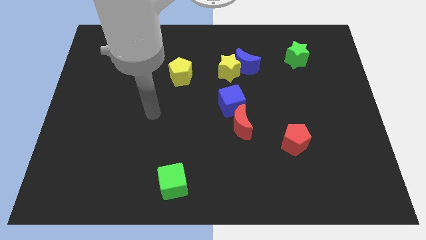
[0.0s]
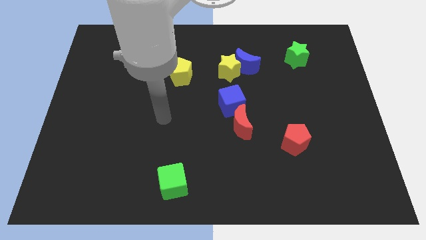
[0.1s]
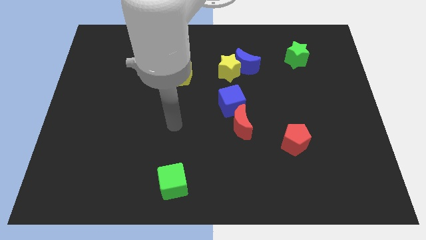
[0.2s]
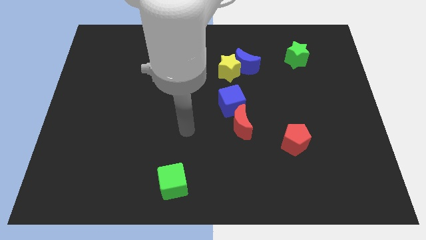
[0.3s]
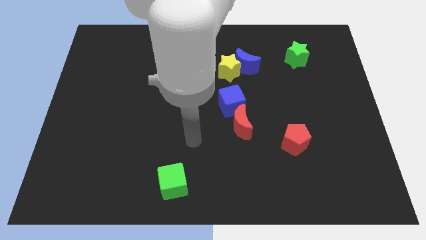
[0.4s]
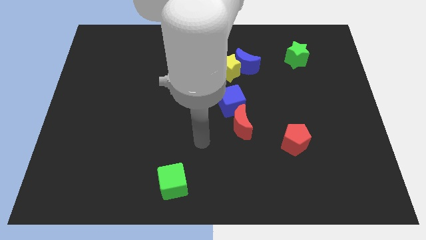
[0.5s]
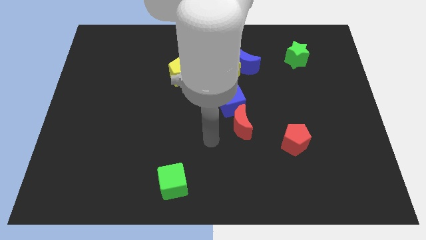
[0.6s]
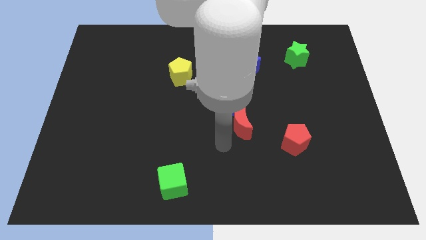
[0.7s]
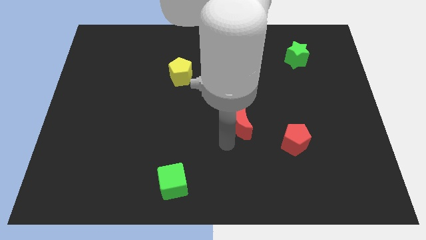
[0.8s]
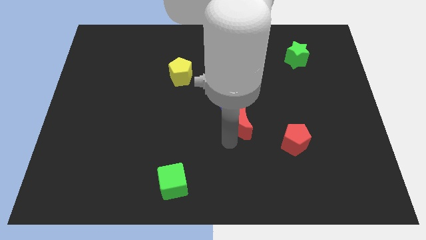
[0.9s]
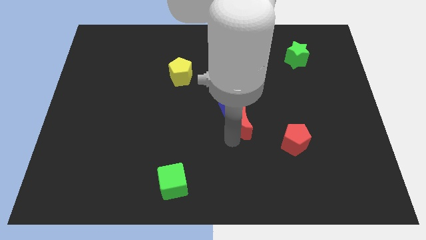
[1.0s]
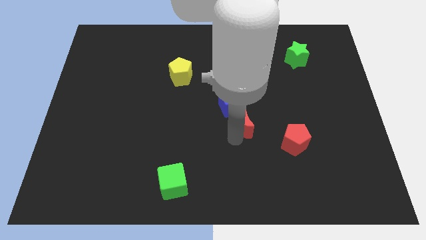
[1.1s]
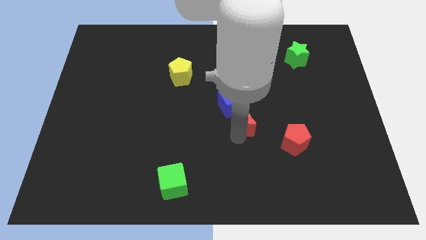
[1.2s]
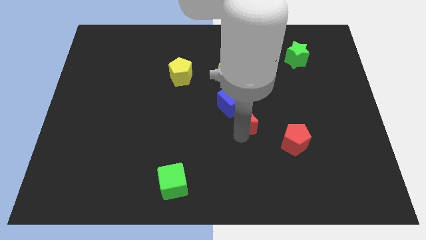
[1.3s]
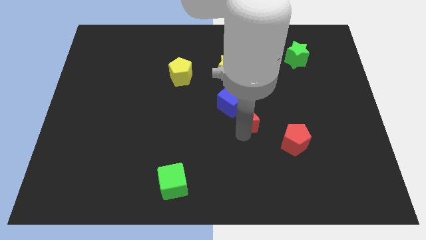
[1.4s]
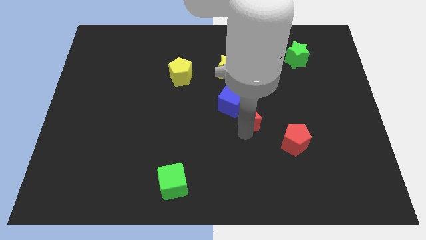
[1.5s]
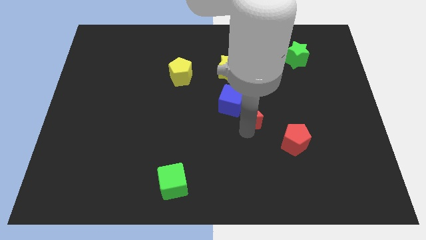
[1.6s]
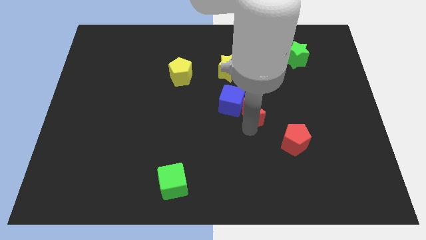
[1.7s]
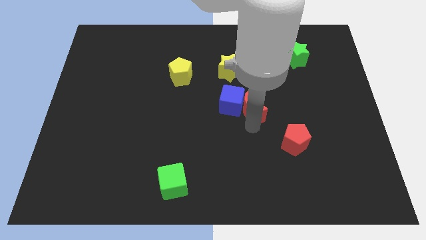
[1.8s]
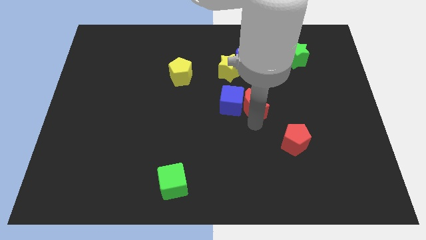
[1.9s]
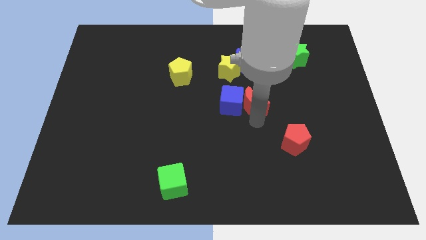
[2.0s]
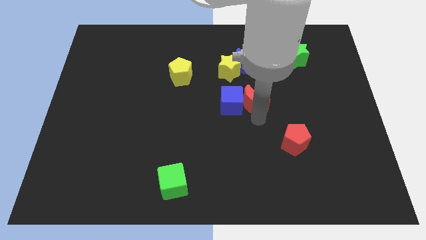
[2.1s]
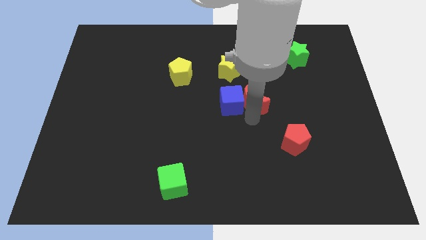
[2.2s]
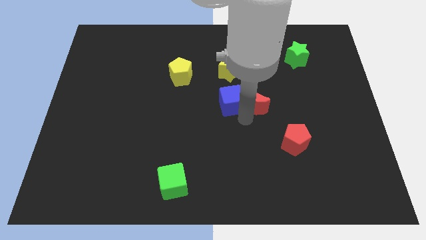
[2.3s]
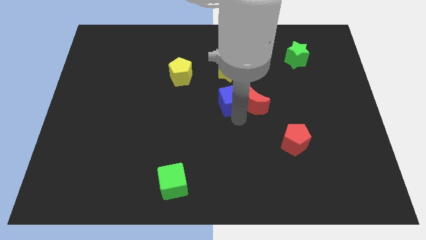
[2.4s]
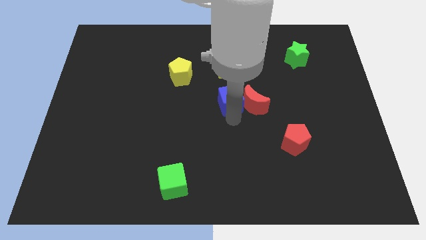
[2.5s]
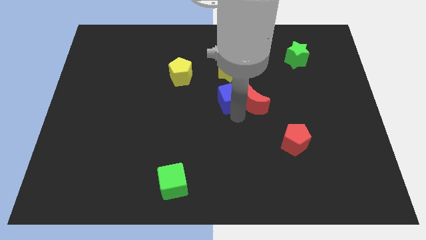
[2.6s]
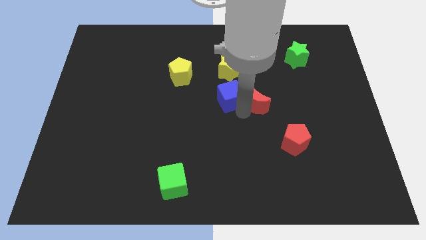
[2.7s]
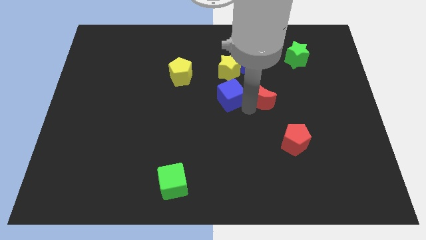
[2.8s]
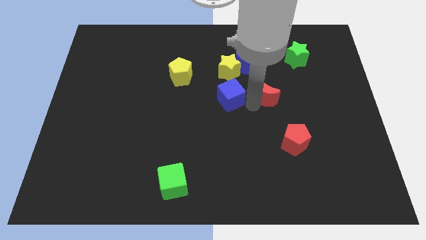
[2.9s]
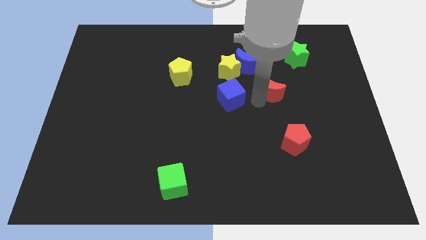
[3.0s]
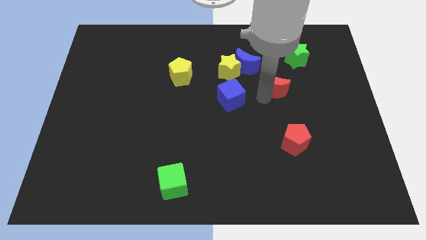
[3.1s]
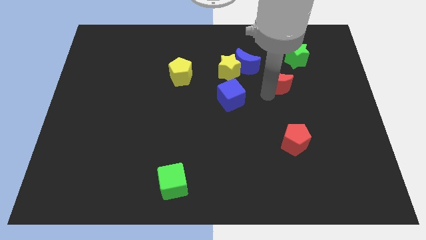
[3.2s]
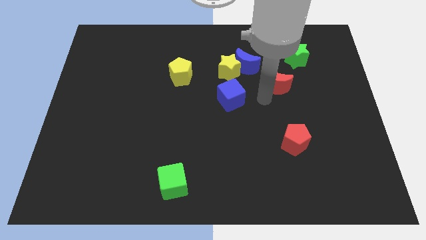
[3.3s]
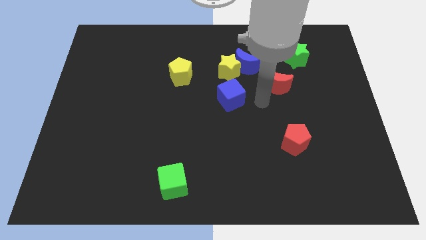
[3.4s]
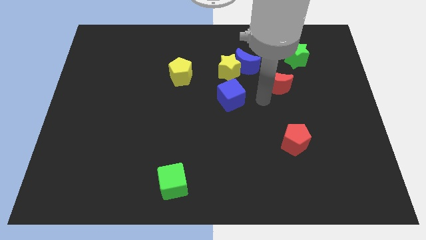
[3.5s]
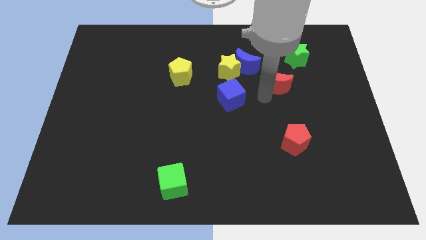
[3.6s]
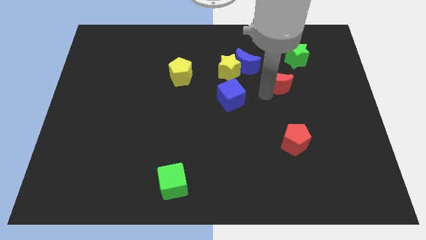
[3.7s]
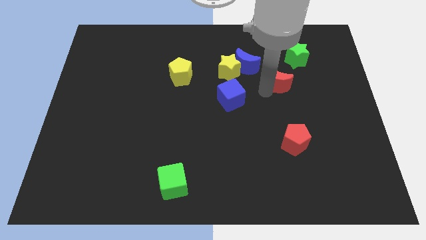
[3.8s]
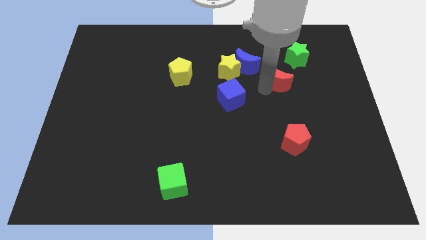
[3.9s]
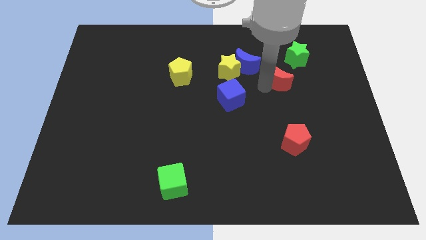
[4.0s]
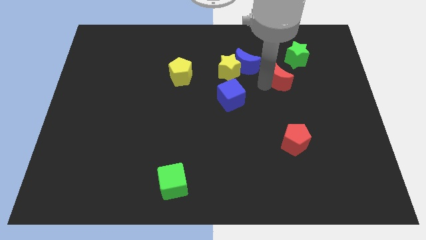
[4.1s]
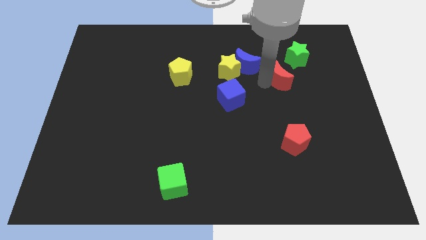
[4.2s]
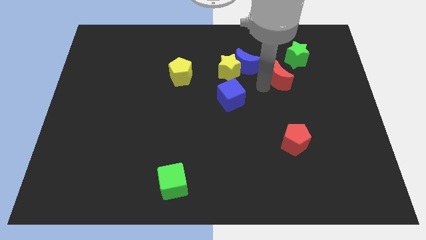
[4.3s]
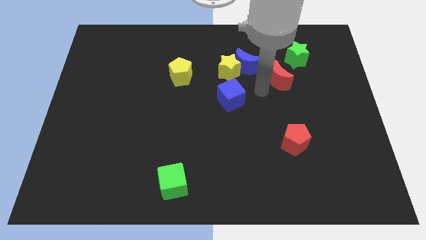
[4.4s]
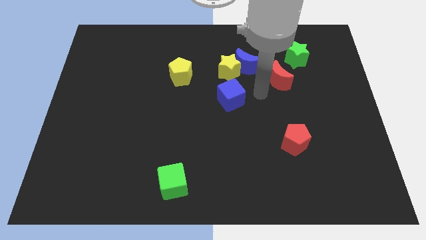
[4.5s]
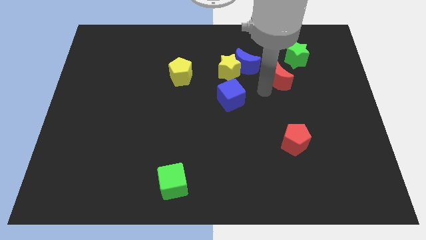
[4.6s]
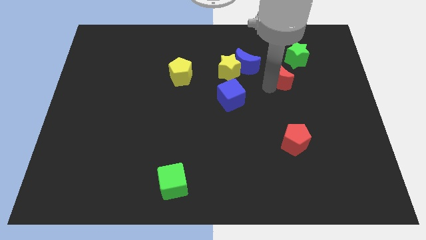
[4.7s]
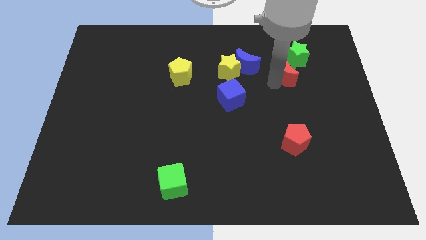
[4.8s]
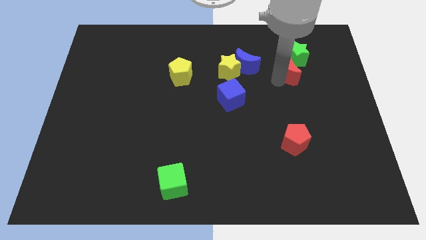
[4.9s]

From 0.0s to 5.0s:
slide the red moon next to the green star

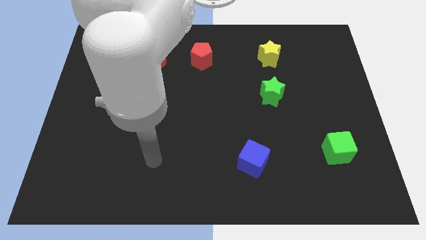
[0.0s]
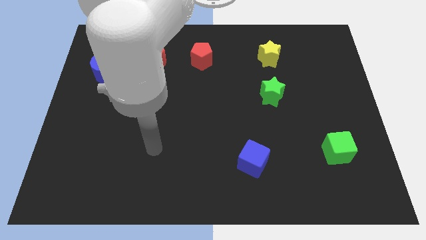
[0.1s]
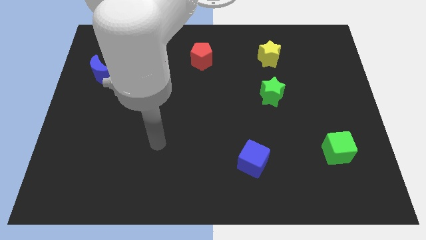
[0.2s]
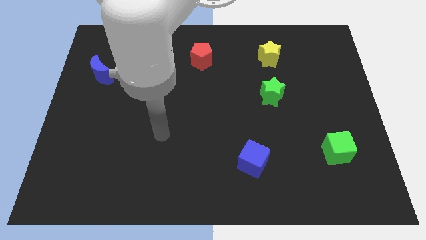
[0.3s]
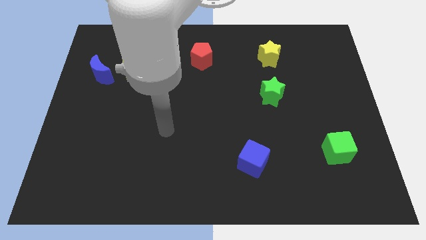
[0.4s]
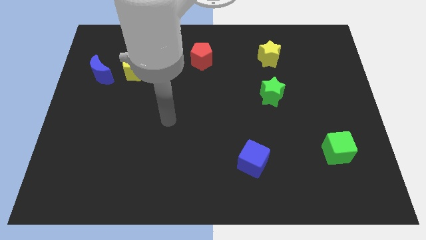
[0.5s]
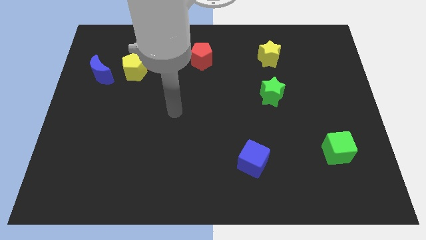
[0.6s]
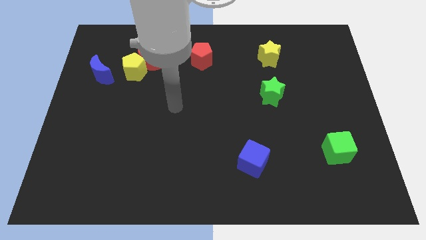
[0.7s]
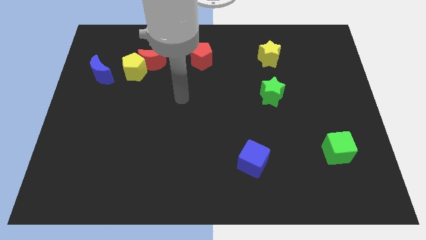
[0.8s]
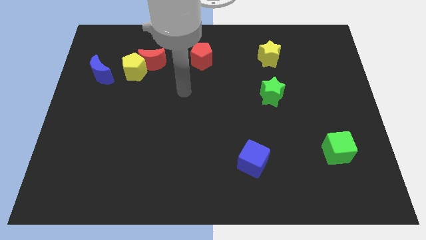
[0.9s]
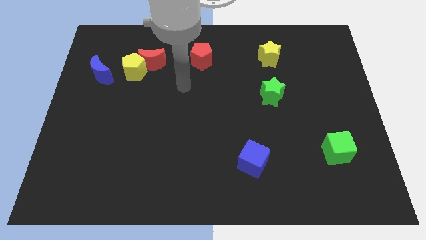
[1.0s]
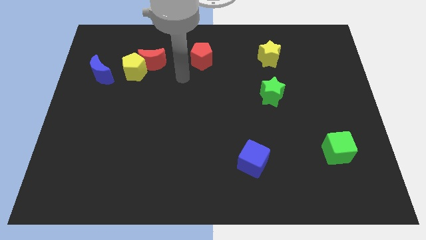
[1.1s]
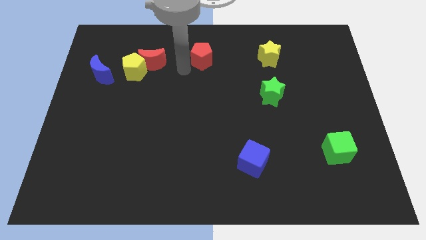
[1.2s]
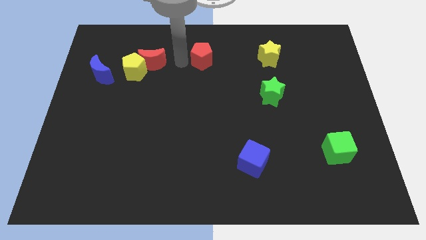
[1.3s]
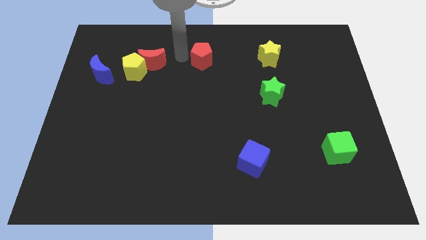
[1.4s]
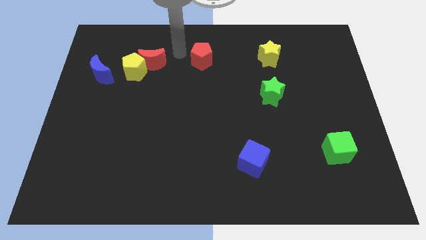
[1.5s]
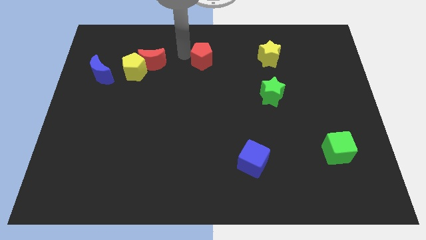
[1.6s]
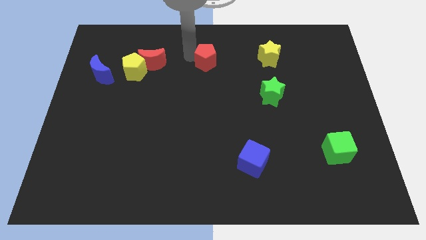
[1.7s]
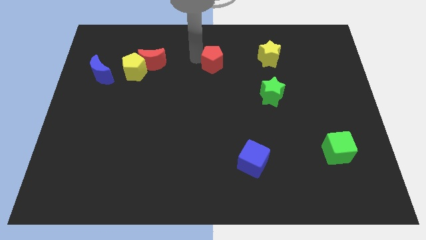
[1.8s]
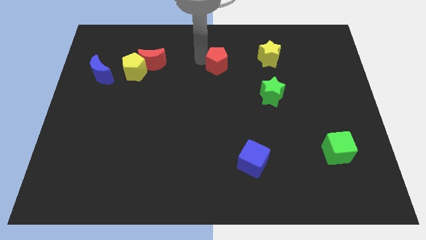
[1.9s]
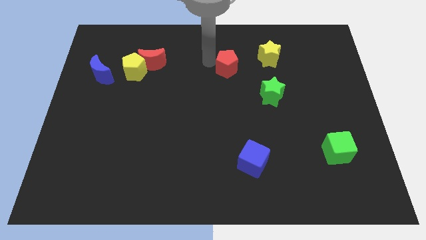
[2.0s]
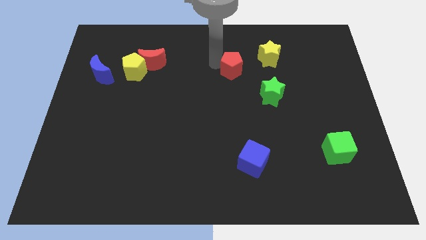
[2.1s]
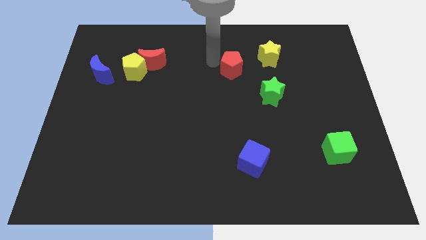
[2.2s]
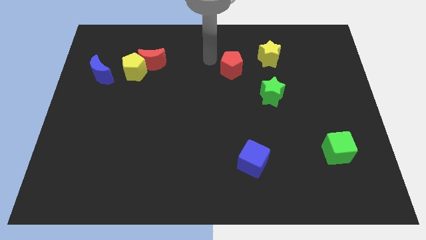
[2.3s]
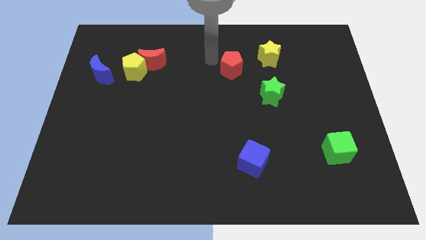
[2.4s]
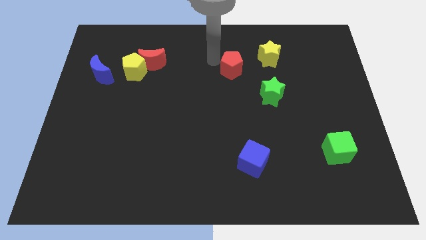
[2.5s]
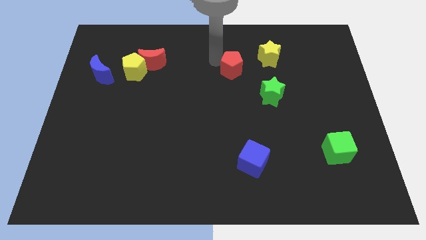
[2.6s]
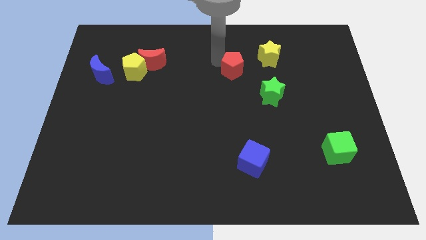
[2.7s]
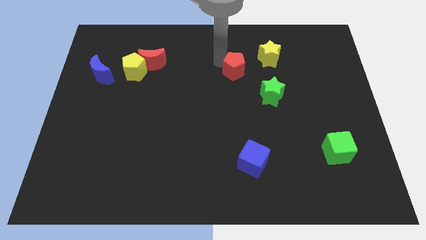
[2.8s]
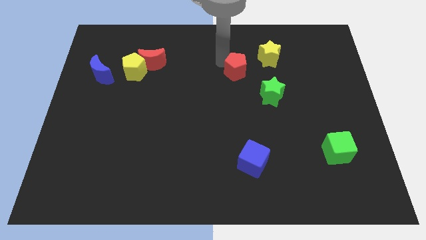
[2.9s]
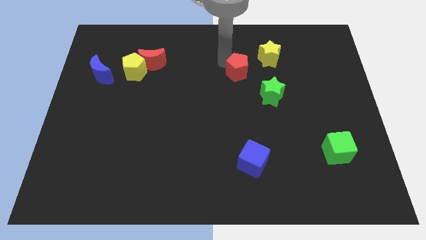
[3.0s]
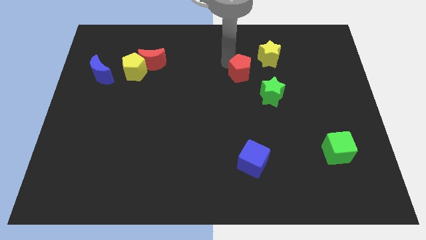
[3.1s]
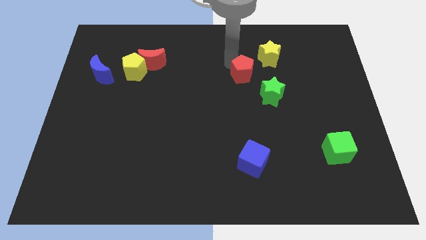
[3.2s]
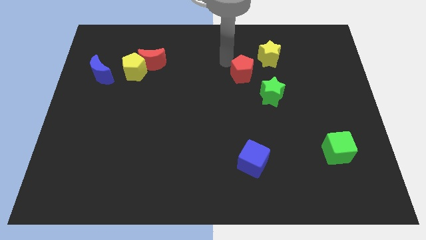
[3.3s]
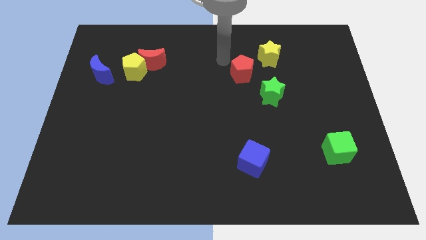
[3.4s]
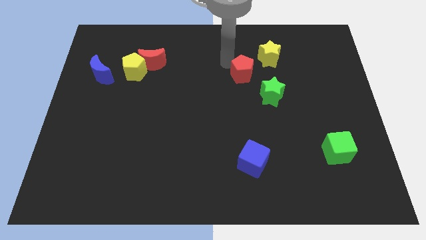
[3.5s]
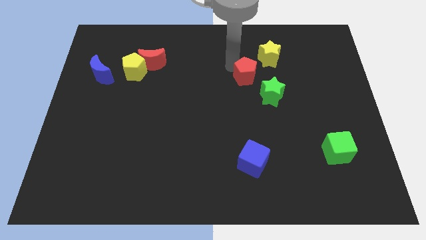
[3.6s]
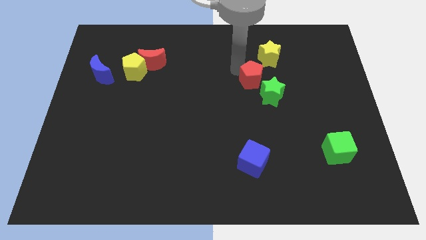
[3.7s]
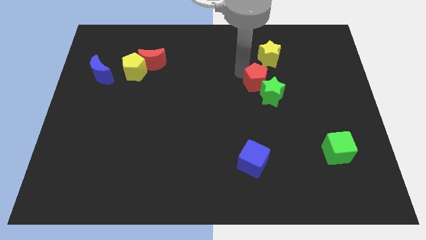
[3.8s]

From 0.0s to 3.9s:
put the red pentagon next to the green star
